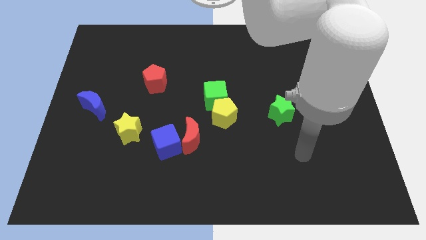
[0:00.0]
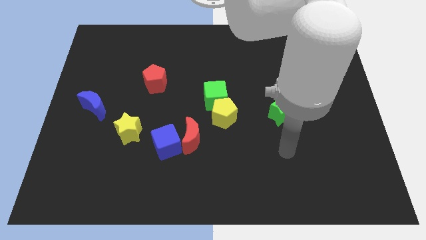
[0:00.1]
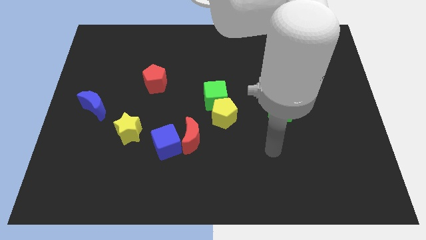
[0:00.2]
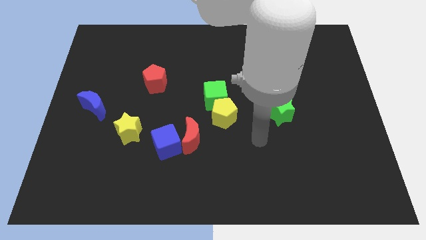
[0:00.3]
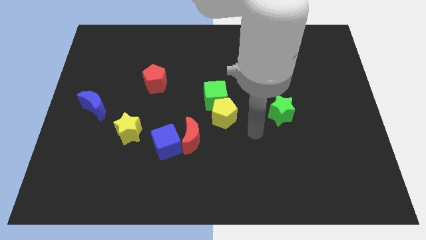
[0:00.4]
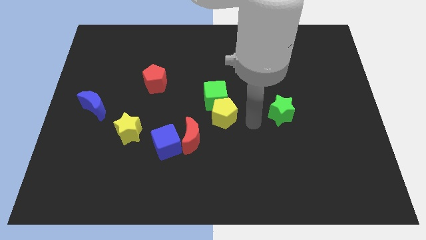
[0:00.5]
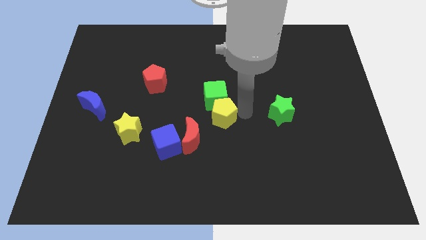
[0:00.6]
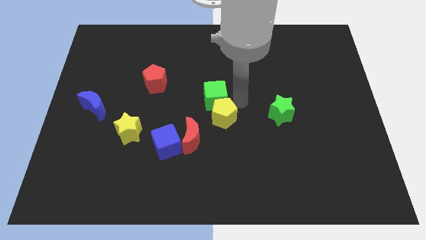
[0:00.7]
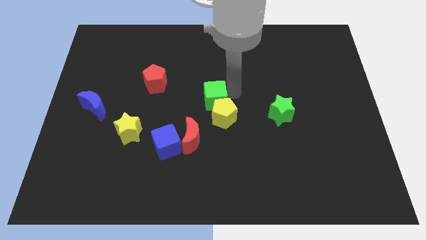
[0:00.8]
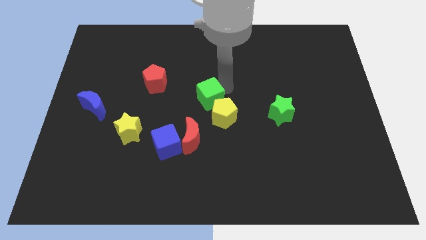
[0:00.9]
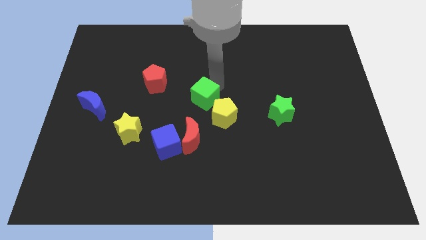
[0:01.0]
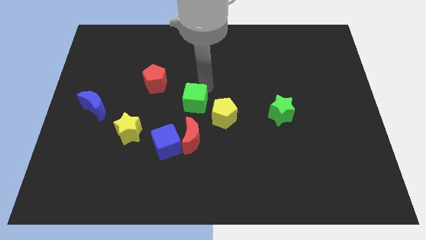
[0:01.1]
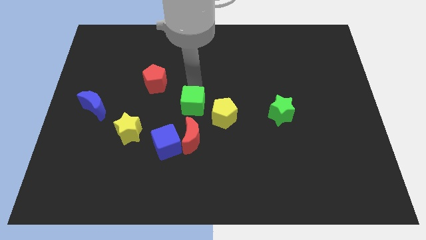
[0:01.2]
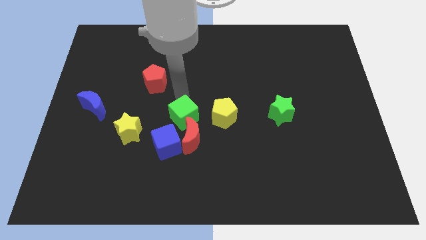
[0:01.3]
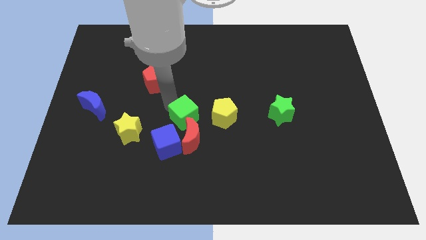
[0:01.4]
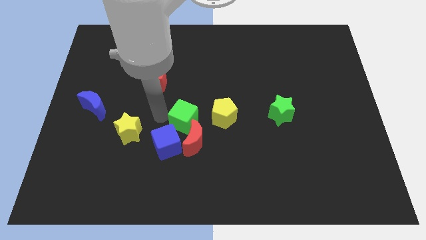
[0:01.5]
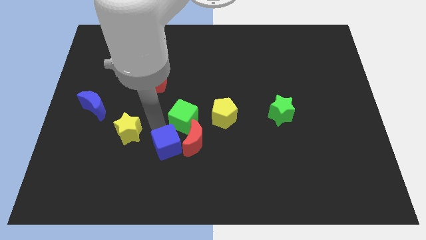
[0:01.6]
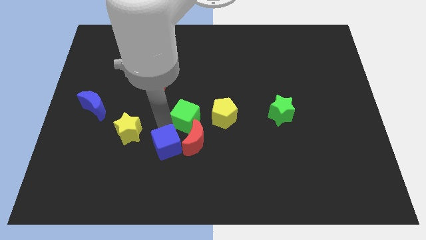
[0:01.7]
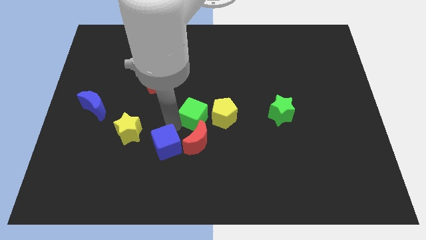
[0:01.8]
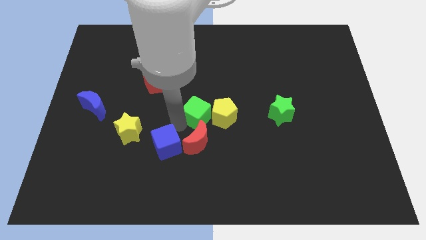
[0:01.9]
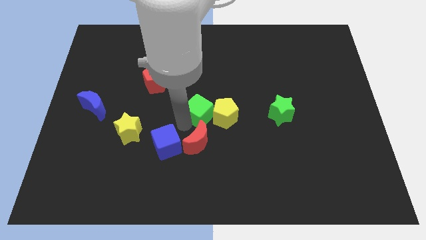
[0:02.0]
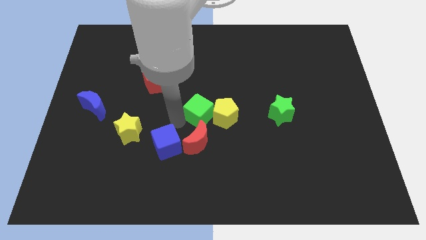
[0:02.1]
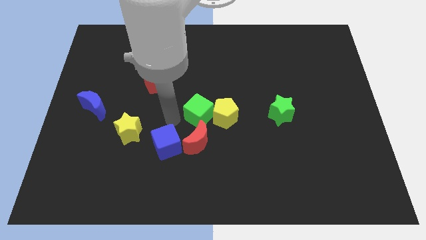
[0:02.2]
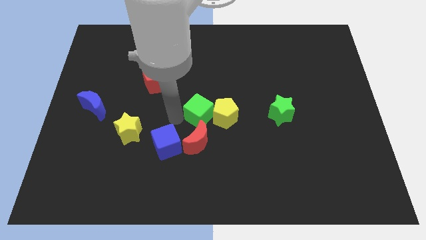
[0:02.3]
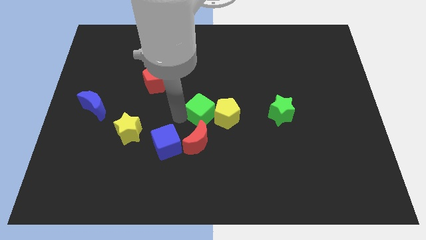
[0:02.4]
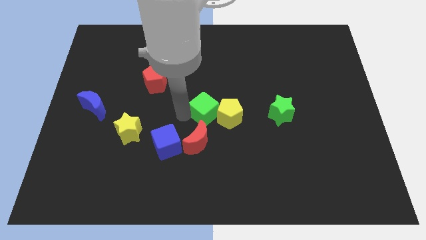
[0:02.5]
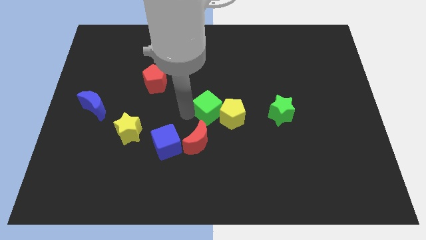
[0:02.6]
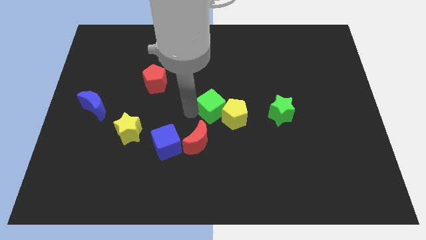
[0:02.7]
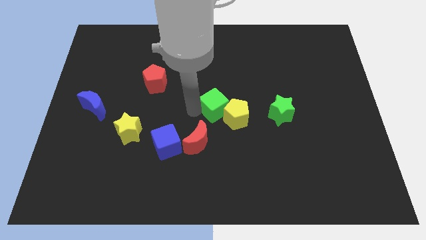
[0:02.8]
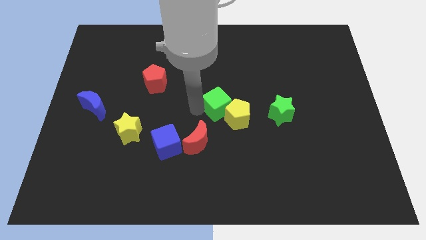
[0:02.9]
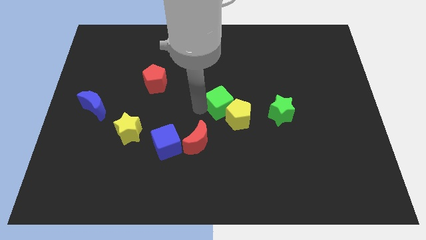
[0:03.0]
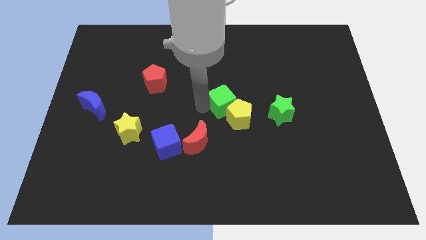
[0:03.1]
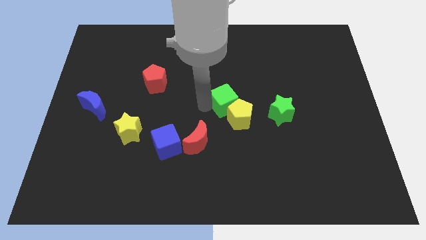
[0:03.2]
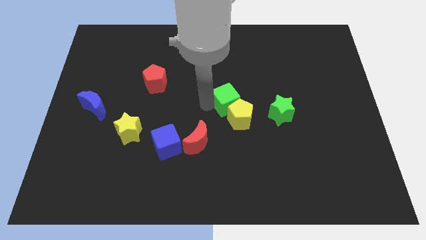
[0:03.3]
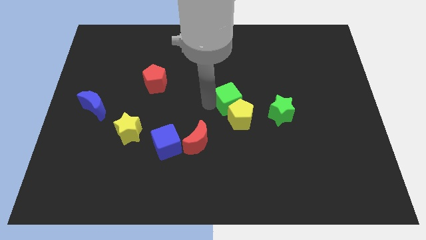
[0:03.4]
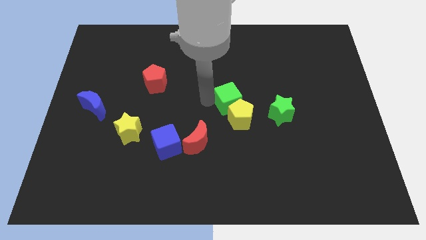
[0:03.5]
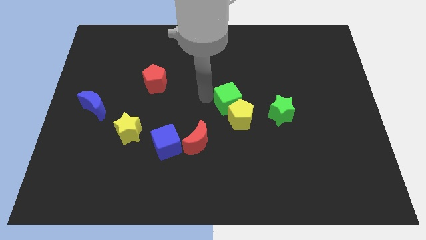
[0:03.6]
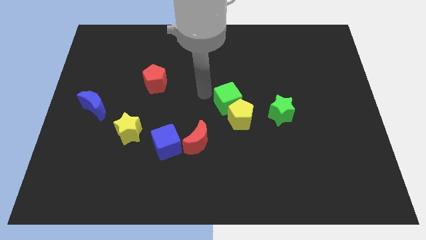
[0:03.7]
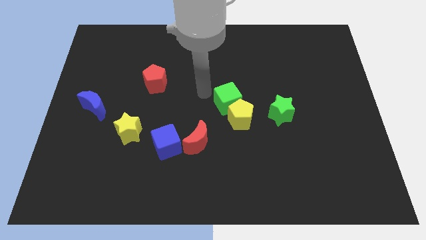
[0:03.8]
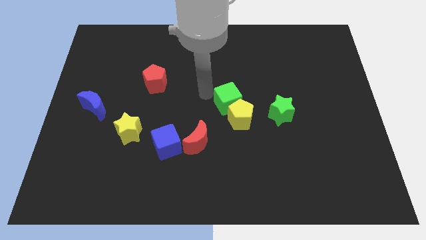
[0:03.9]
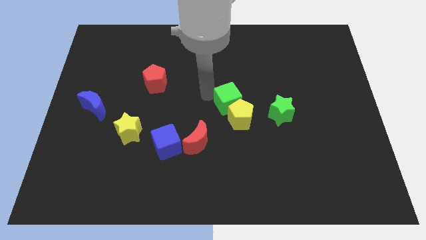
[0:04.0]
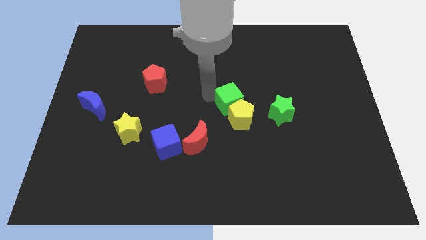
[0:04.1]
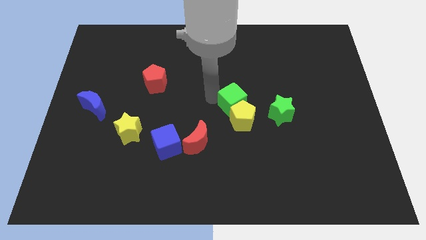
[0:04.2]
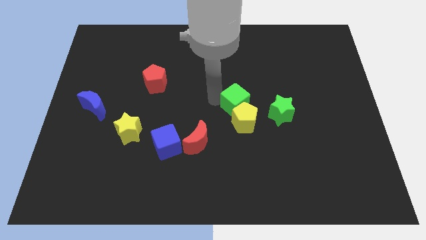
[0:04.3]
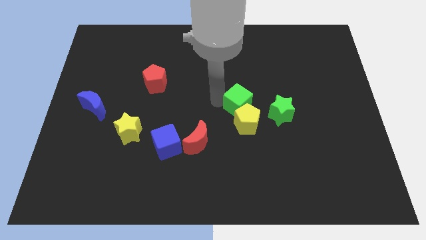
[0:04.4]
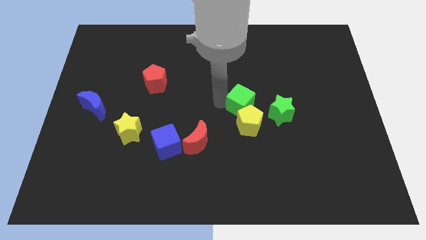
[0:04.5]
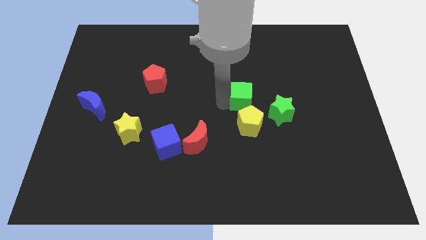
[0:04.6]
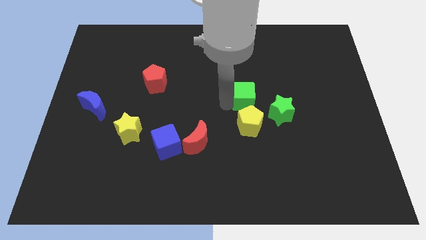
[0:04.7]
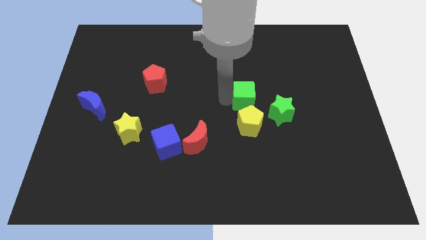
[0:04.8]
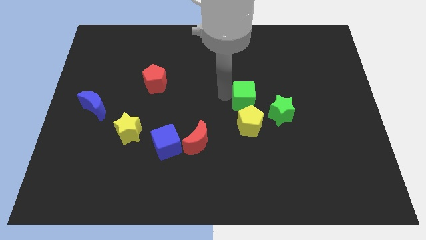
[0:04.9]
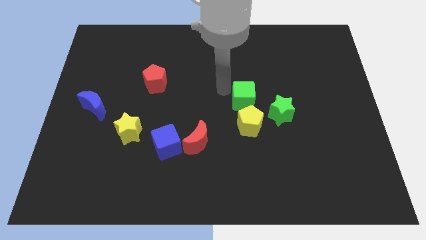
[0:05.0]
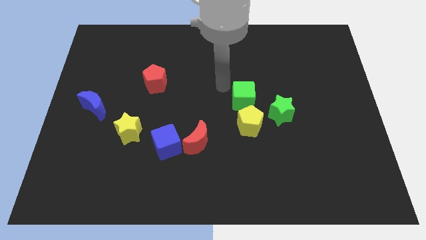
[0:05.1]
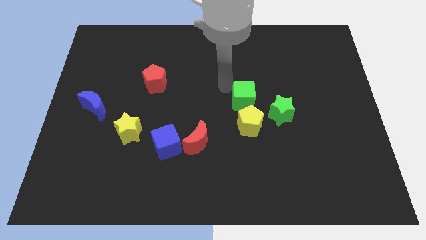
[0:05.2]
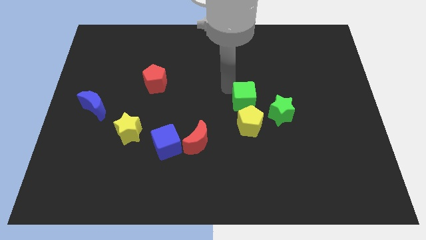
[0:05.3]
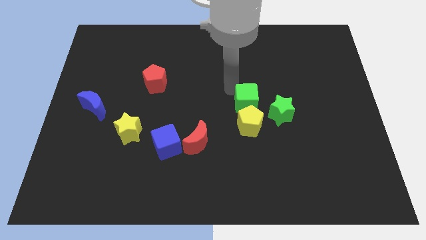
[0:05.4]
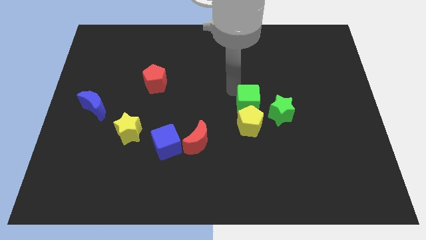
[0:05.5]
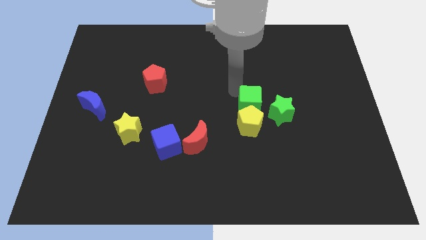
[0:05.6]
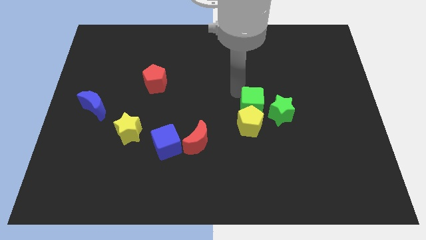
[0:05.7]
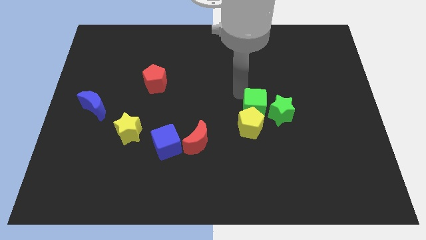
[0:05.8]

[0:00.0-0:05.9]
put the green cube next to the green star

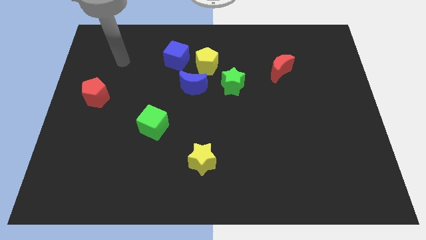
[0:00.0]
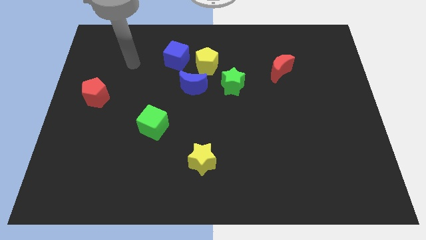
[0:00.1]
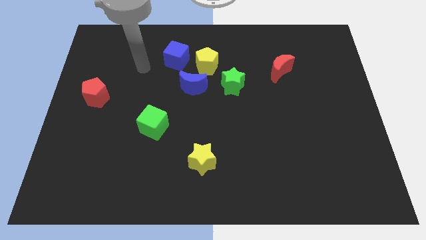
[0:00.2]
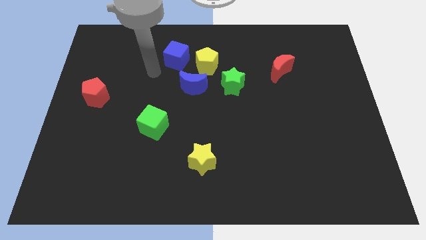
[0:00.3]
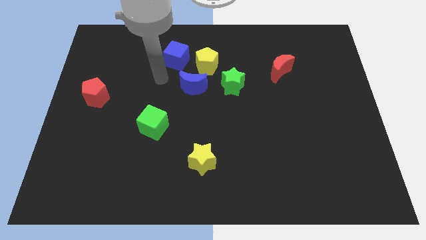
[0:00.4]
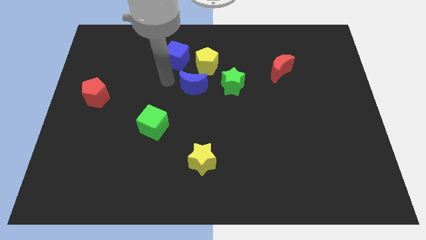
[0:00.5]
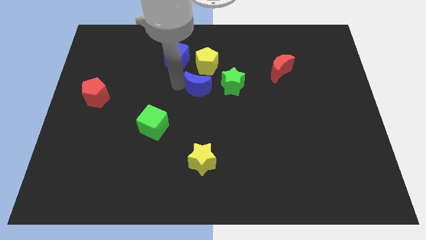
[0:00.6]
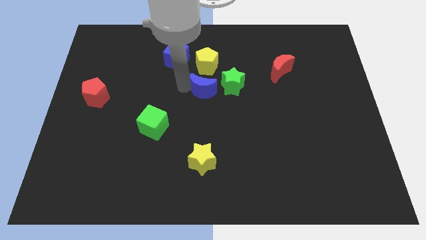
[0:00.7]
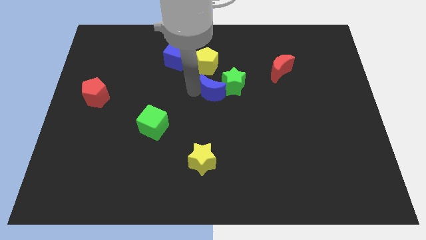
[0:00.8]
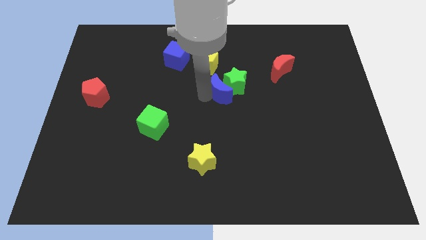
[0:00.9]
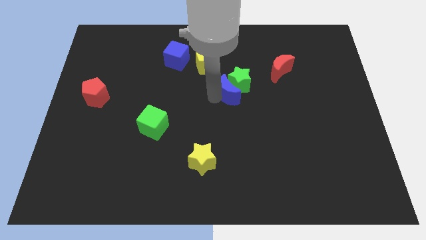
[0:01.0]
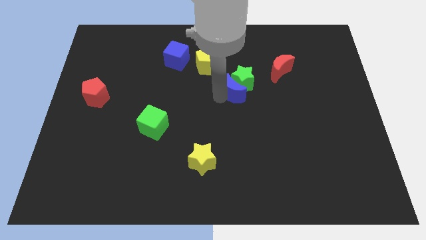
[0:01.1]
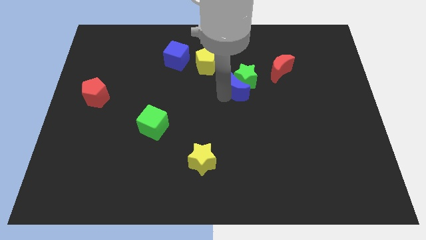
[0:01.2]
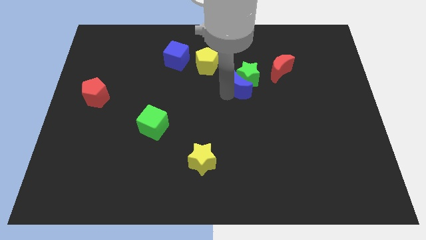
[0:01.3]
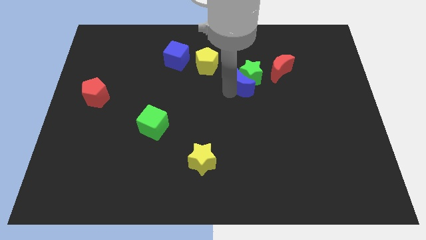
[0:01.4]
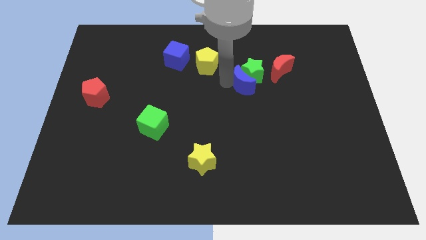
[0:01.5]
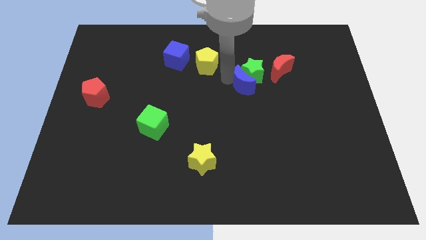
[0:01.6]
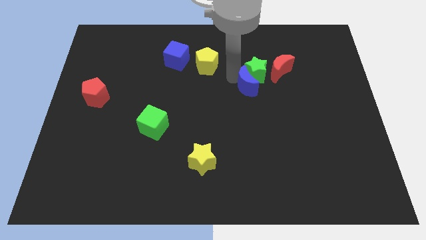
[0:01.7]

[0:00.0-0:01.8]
move the green star towards the red moon
